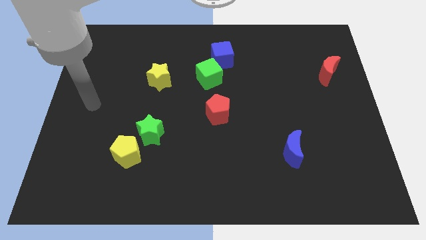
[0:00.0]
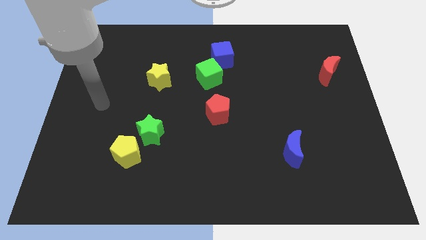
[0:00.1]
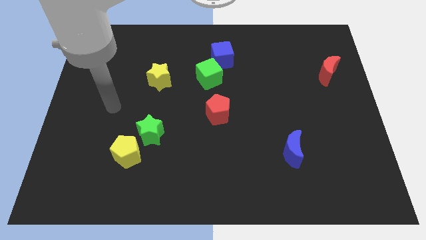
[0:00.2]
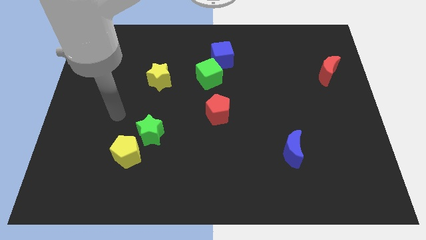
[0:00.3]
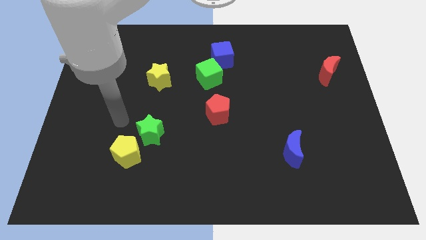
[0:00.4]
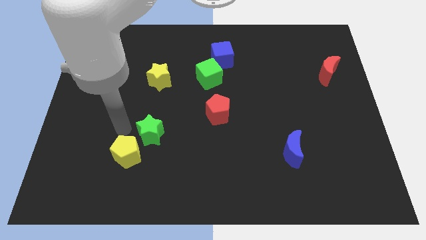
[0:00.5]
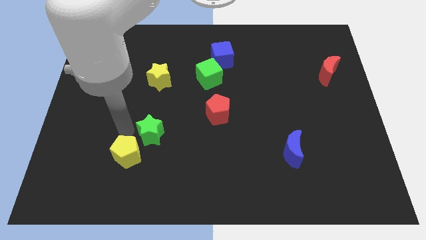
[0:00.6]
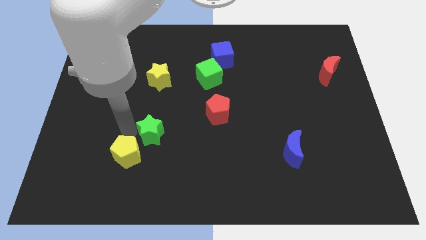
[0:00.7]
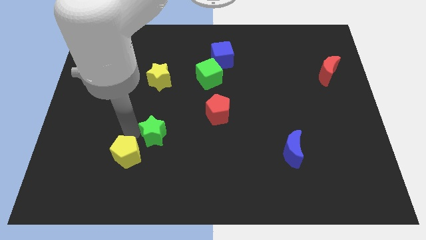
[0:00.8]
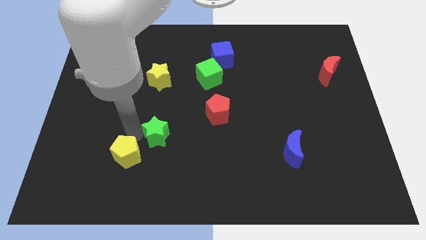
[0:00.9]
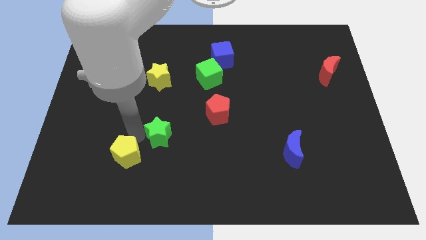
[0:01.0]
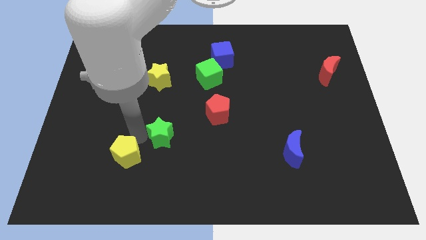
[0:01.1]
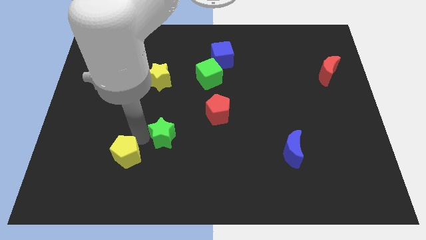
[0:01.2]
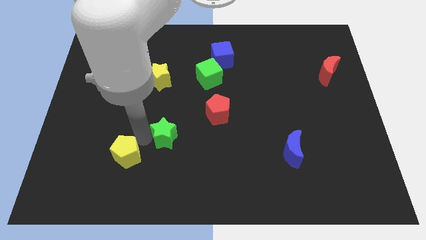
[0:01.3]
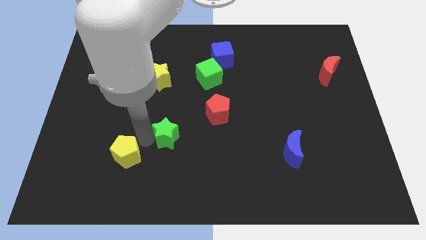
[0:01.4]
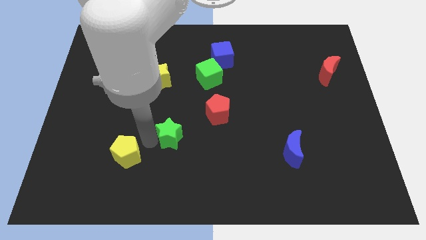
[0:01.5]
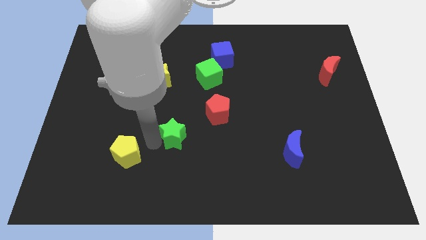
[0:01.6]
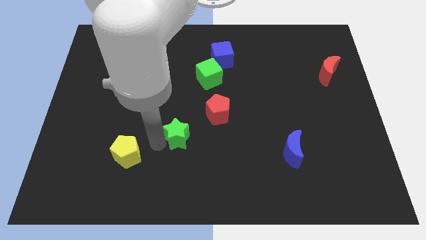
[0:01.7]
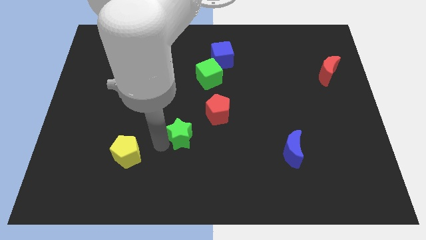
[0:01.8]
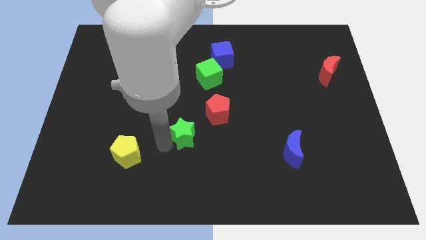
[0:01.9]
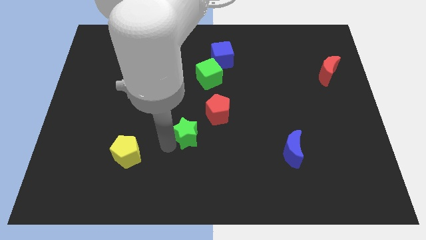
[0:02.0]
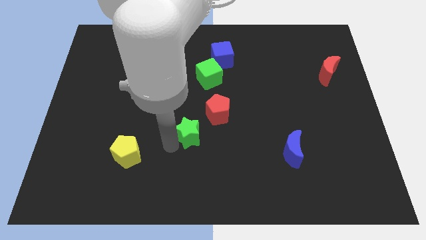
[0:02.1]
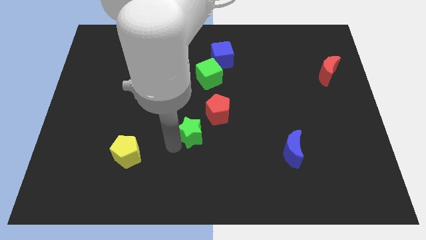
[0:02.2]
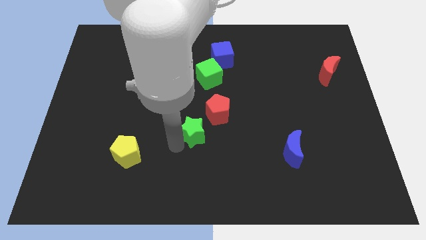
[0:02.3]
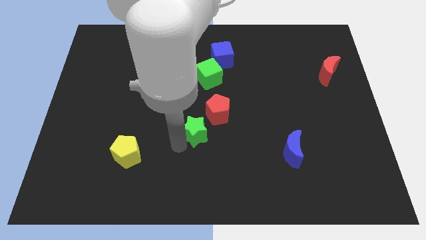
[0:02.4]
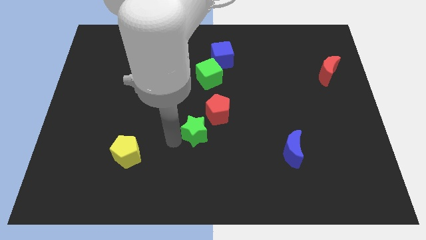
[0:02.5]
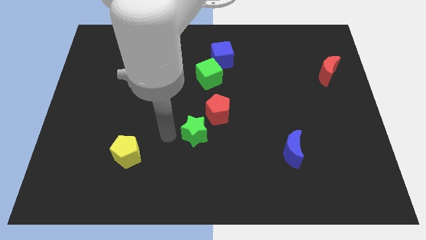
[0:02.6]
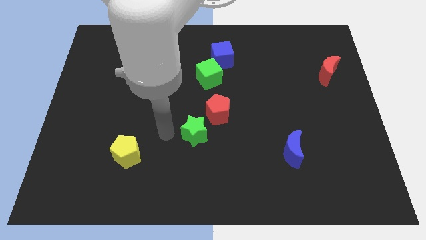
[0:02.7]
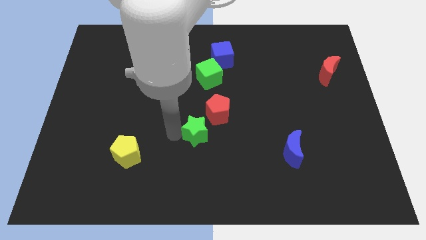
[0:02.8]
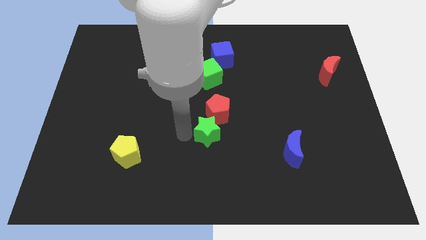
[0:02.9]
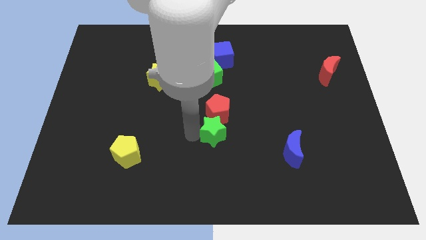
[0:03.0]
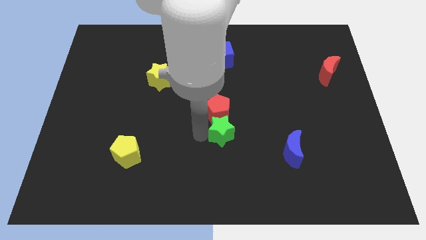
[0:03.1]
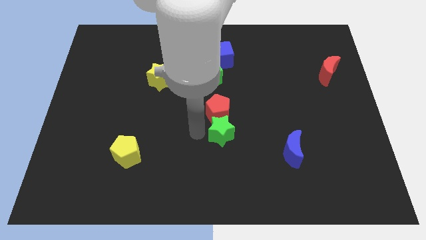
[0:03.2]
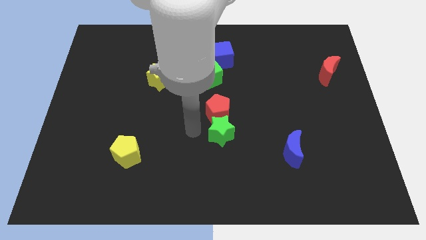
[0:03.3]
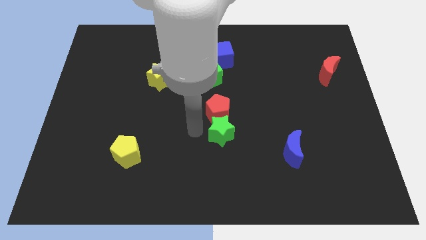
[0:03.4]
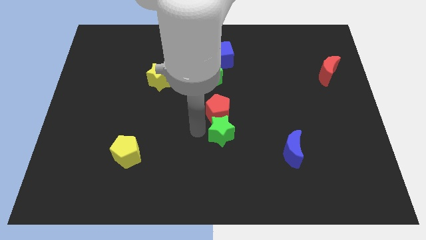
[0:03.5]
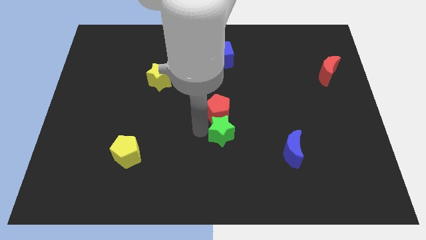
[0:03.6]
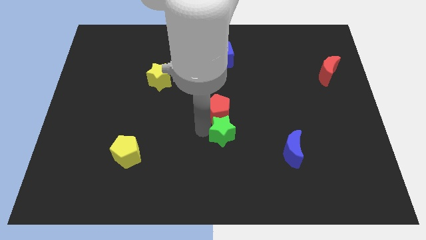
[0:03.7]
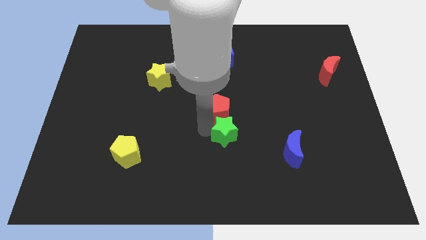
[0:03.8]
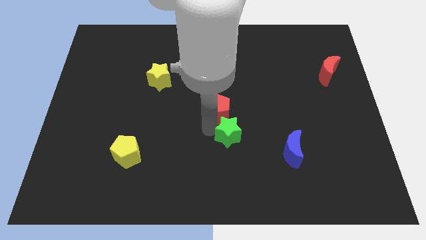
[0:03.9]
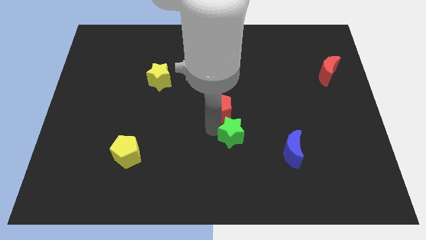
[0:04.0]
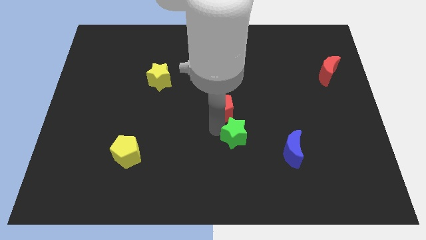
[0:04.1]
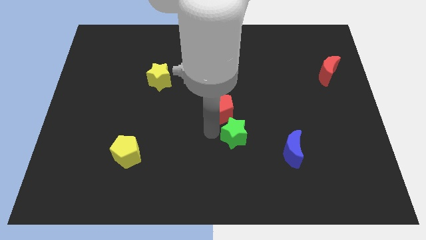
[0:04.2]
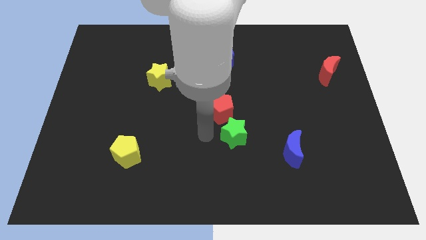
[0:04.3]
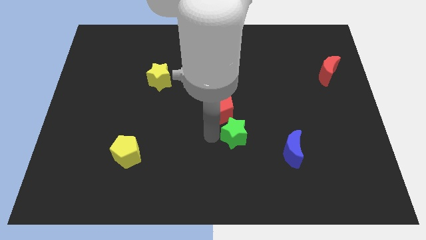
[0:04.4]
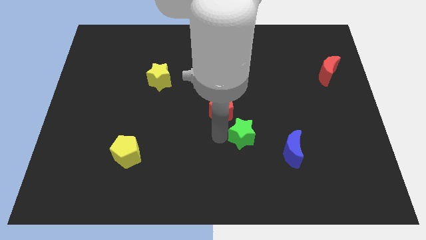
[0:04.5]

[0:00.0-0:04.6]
slide the green star to the right

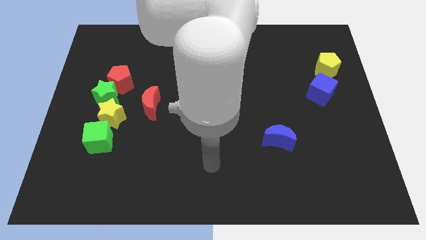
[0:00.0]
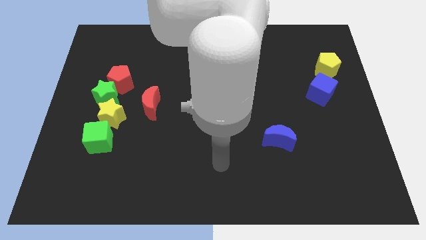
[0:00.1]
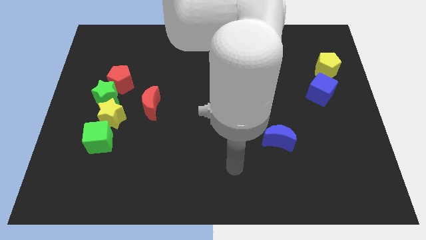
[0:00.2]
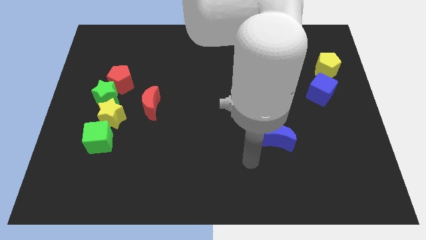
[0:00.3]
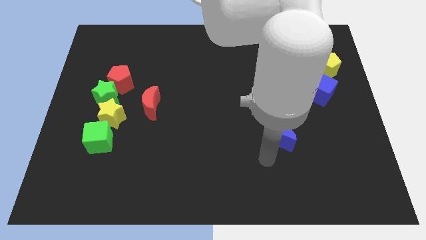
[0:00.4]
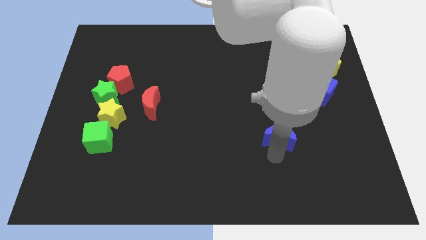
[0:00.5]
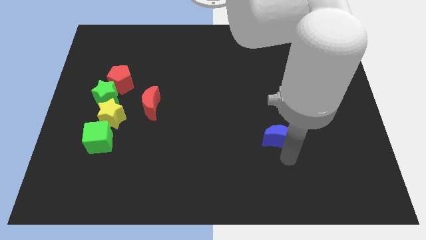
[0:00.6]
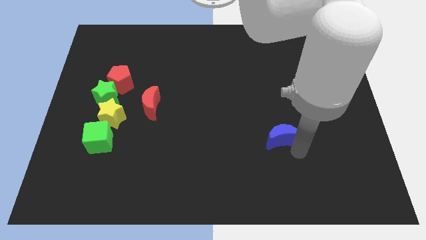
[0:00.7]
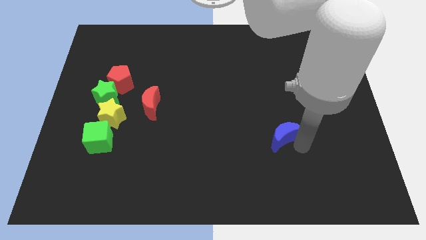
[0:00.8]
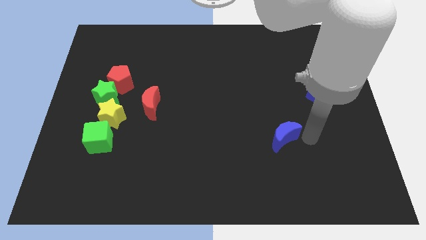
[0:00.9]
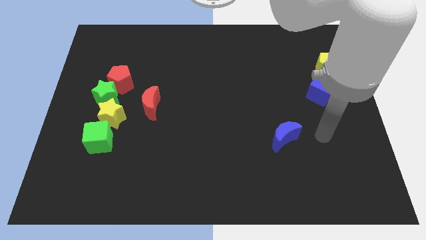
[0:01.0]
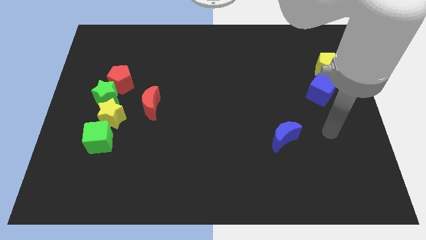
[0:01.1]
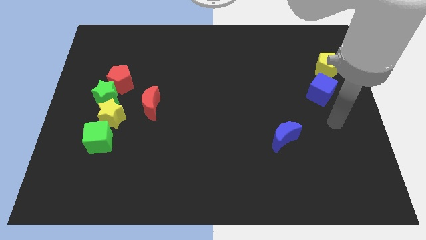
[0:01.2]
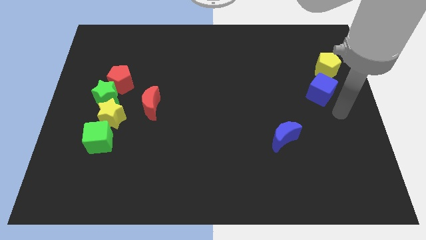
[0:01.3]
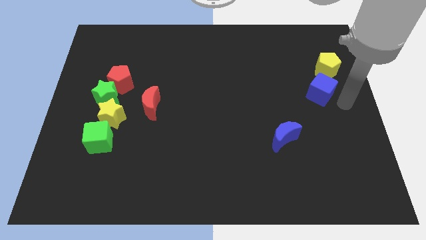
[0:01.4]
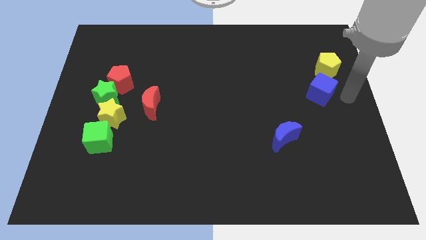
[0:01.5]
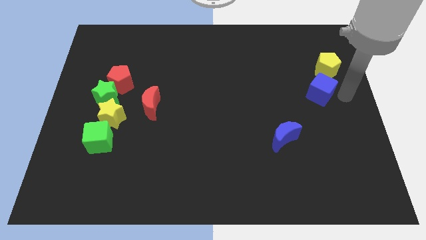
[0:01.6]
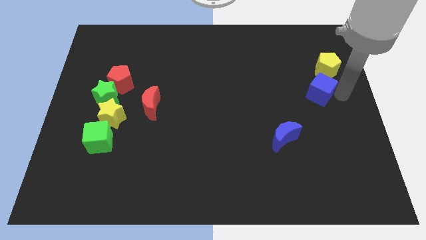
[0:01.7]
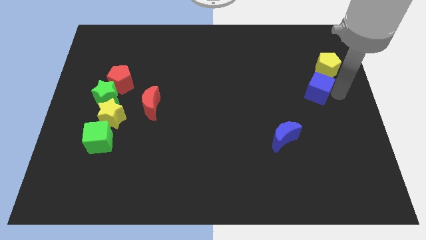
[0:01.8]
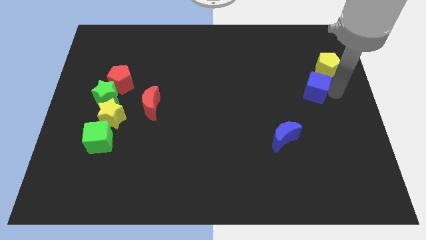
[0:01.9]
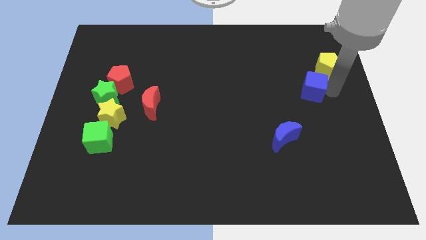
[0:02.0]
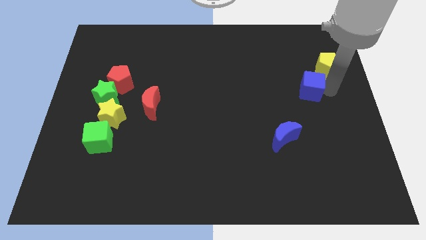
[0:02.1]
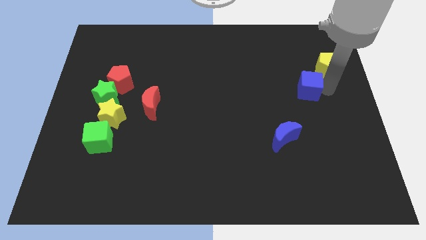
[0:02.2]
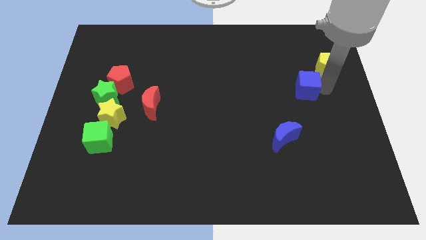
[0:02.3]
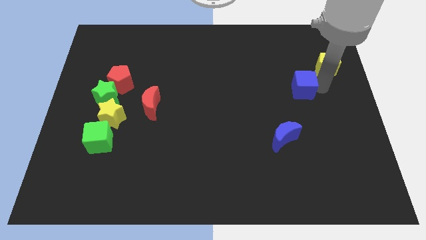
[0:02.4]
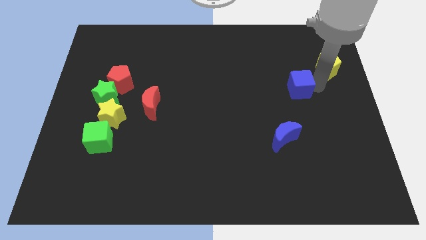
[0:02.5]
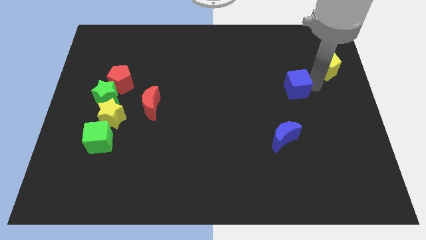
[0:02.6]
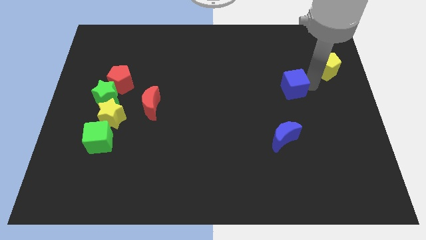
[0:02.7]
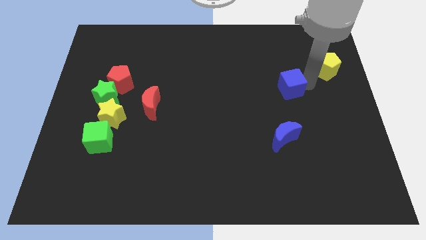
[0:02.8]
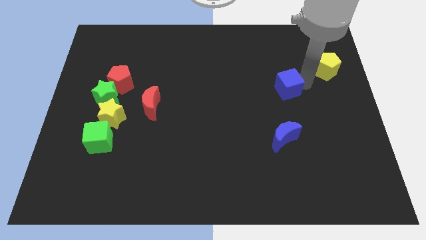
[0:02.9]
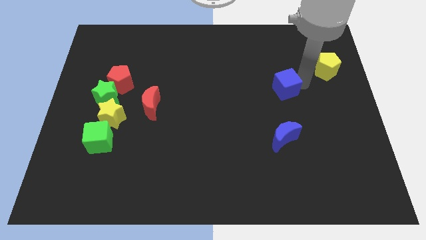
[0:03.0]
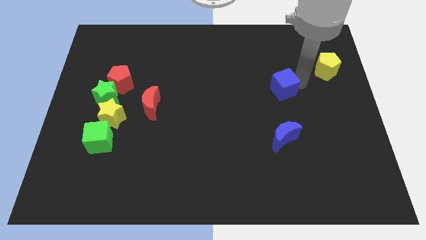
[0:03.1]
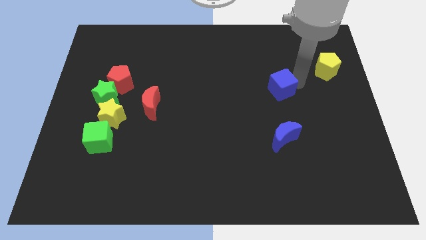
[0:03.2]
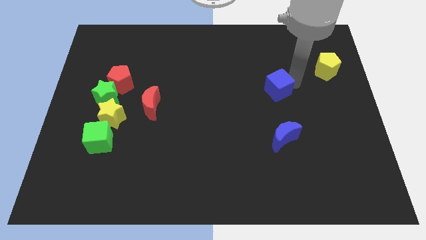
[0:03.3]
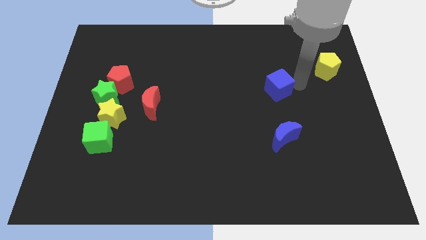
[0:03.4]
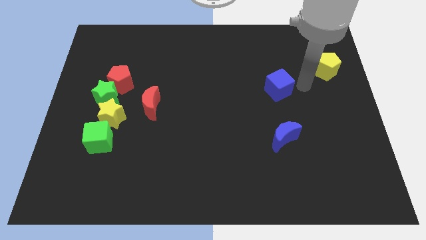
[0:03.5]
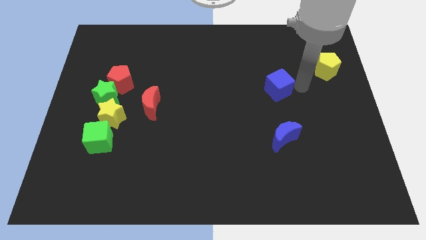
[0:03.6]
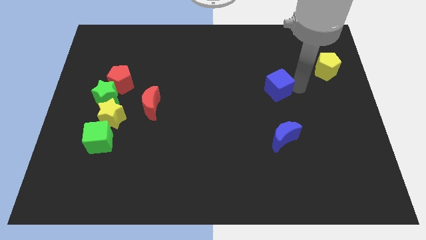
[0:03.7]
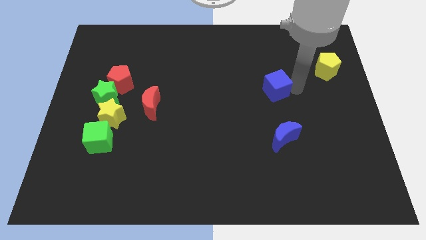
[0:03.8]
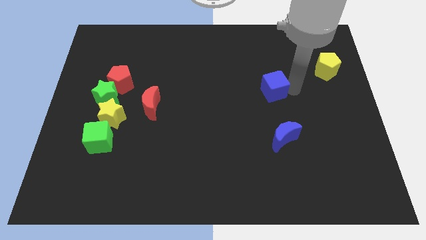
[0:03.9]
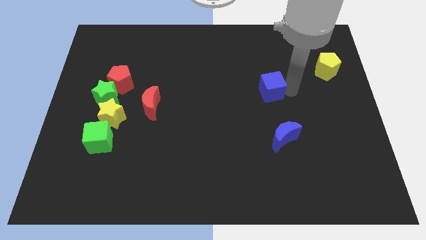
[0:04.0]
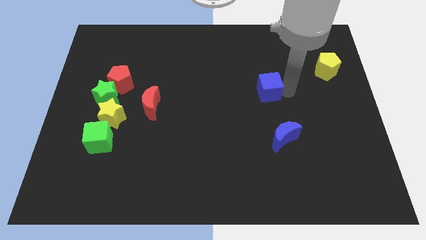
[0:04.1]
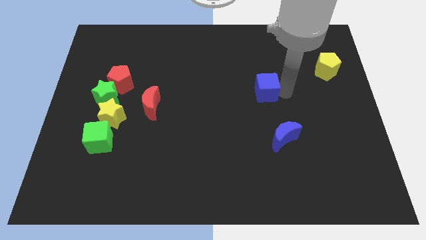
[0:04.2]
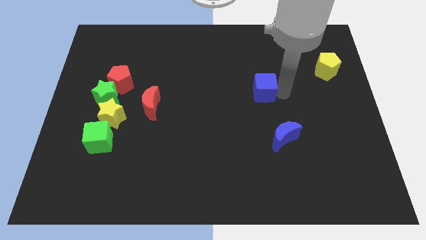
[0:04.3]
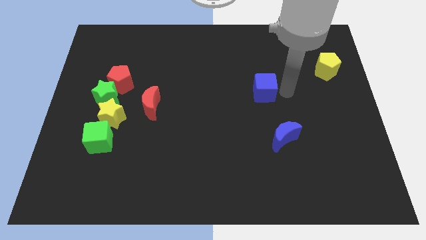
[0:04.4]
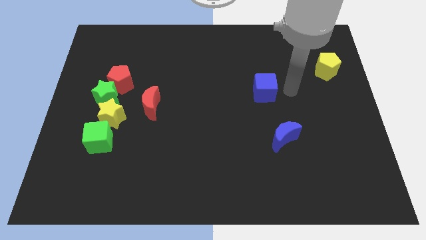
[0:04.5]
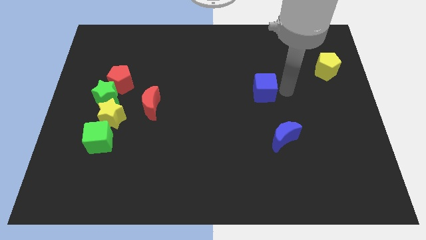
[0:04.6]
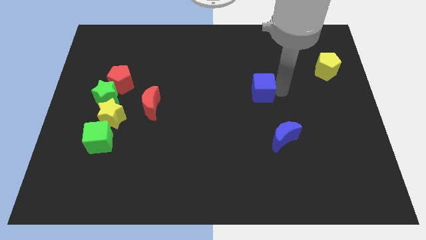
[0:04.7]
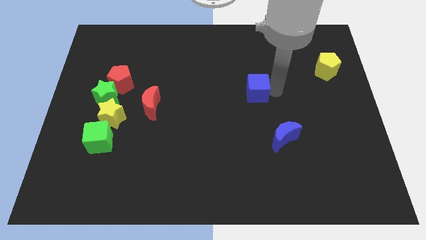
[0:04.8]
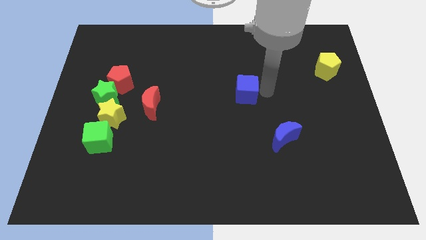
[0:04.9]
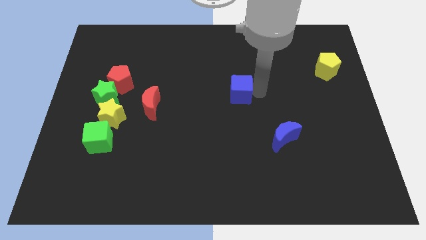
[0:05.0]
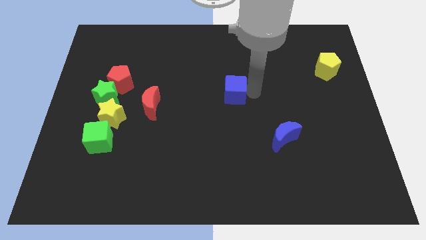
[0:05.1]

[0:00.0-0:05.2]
push the blue cube to the left
